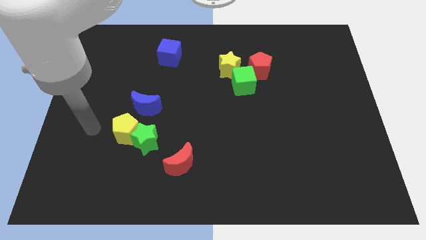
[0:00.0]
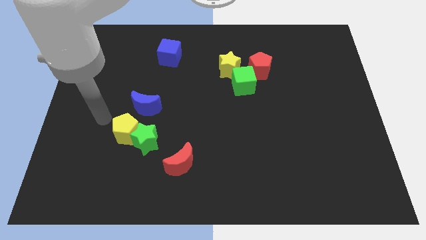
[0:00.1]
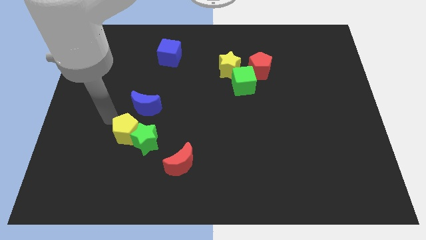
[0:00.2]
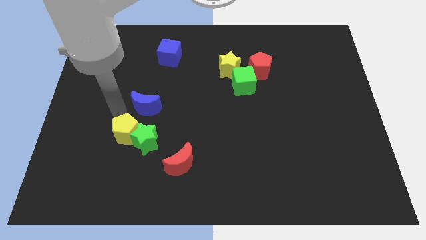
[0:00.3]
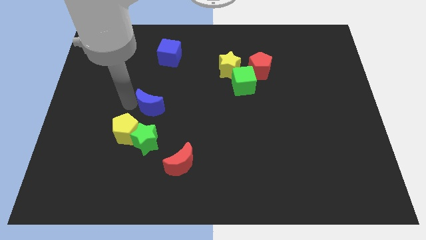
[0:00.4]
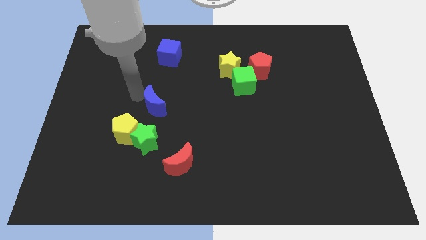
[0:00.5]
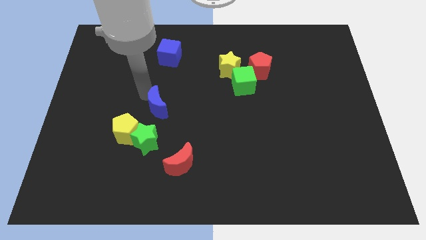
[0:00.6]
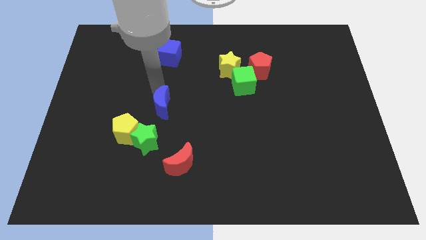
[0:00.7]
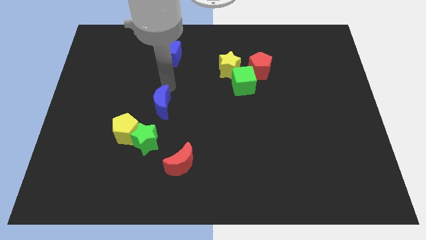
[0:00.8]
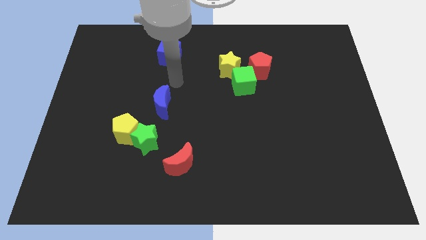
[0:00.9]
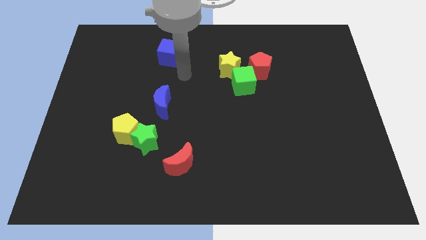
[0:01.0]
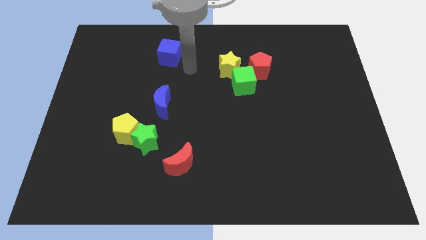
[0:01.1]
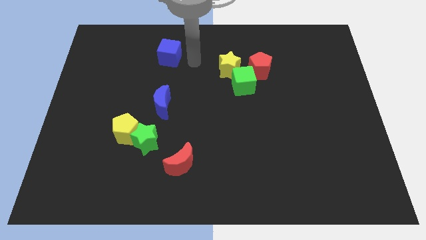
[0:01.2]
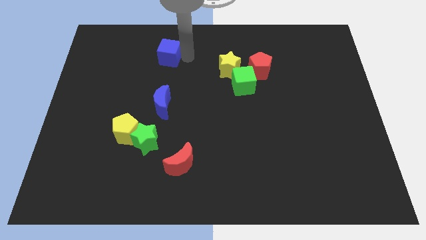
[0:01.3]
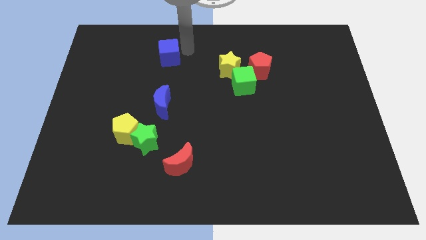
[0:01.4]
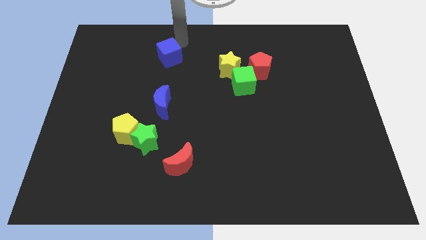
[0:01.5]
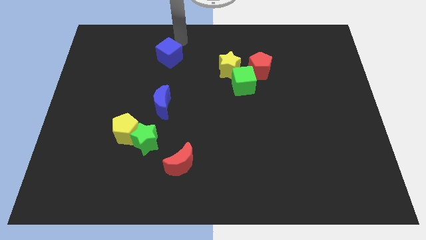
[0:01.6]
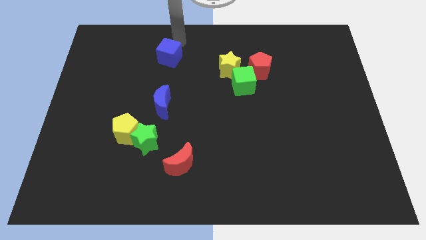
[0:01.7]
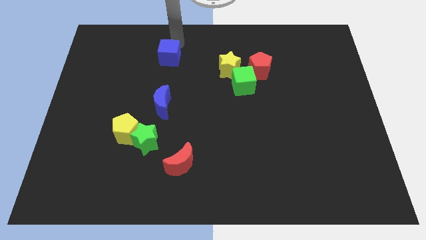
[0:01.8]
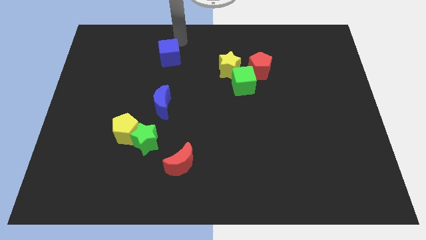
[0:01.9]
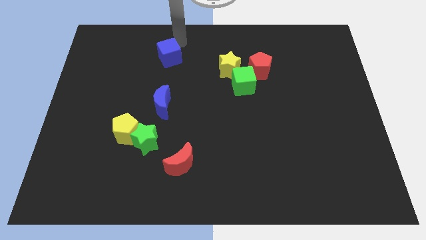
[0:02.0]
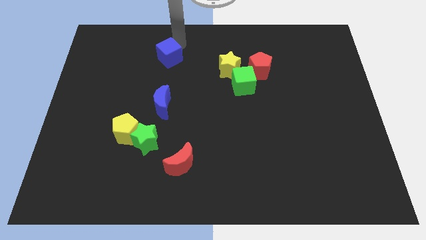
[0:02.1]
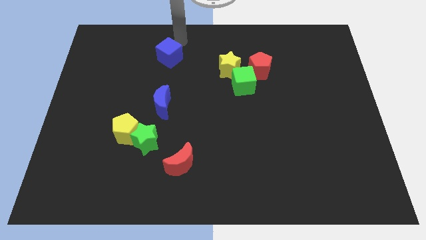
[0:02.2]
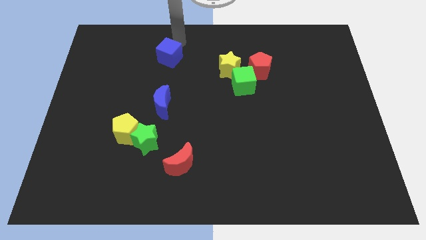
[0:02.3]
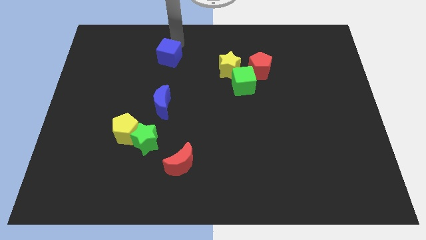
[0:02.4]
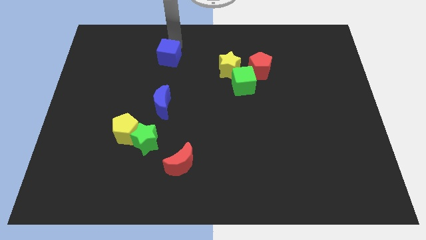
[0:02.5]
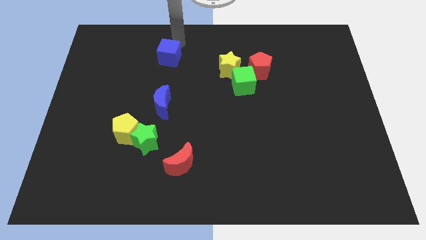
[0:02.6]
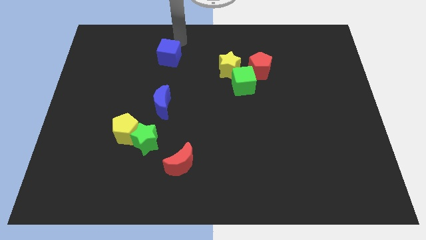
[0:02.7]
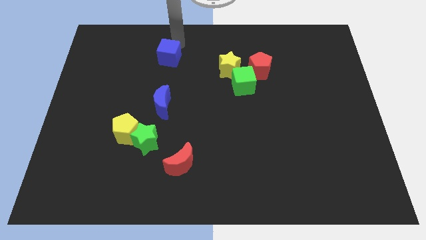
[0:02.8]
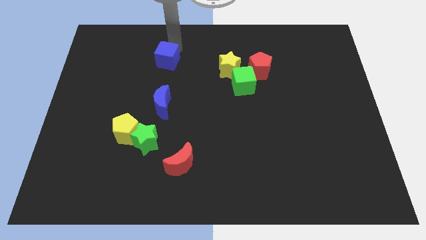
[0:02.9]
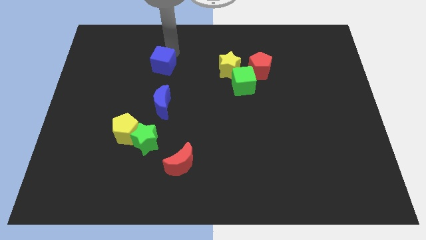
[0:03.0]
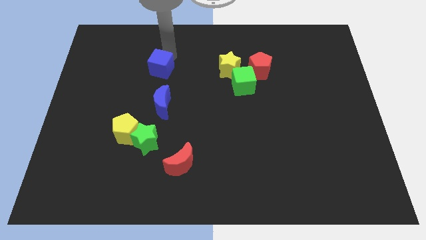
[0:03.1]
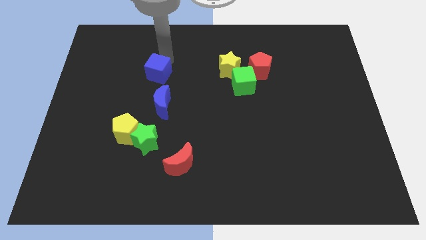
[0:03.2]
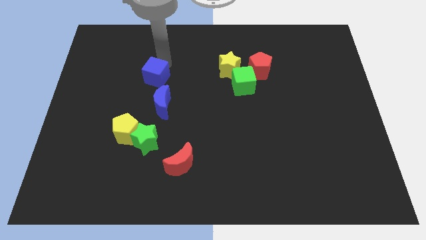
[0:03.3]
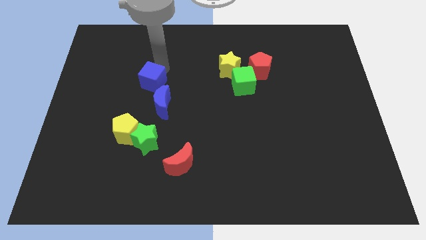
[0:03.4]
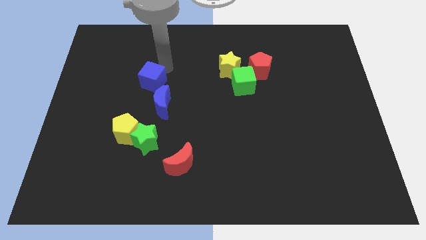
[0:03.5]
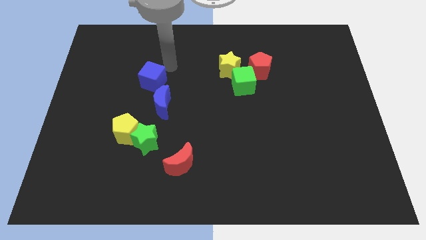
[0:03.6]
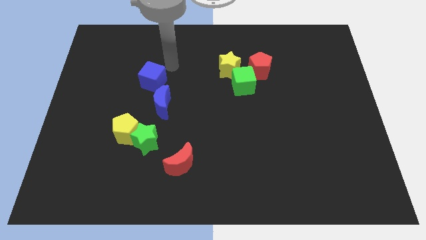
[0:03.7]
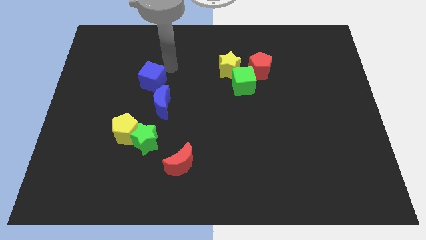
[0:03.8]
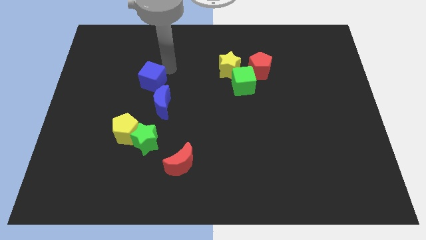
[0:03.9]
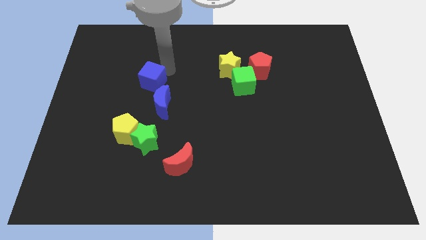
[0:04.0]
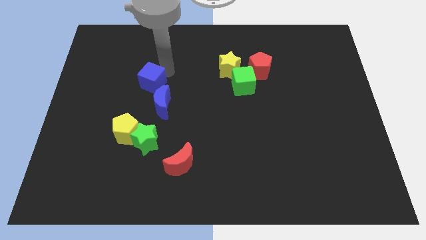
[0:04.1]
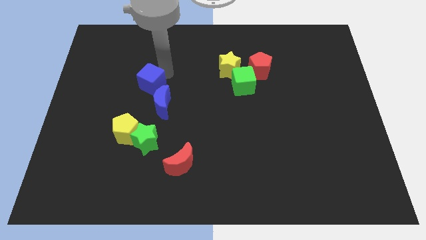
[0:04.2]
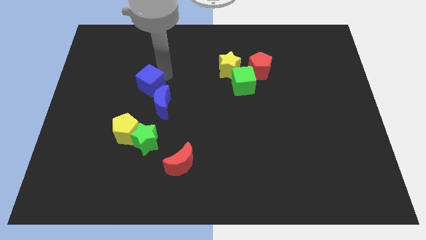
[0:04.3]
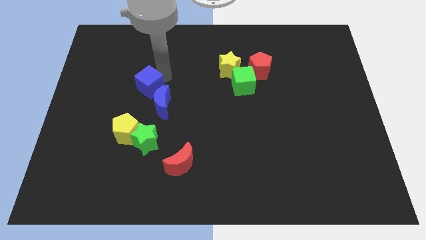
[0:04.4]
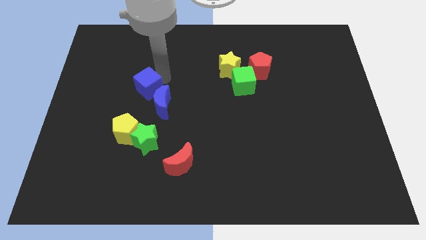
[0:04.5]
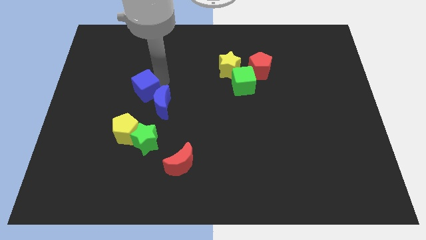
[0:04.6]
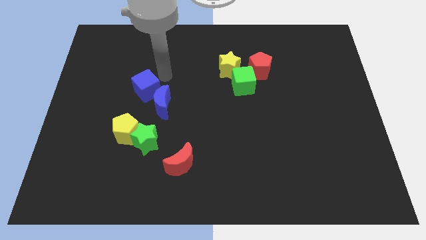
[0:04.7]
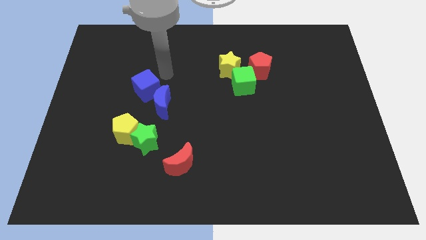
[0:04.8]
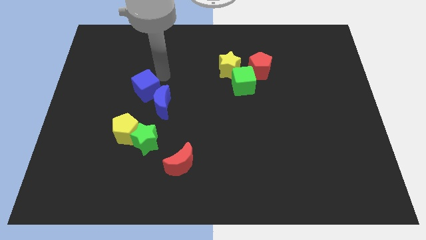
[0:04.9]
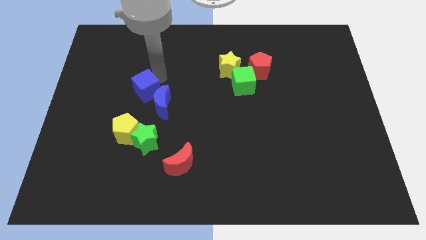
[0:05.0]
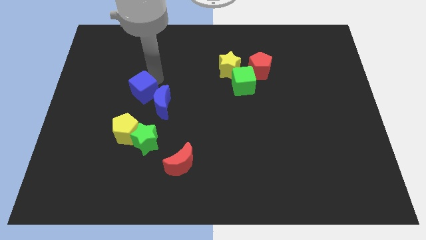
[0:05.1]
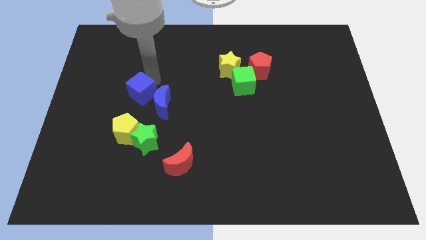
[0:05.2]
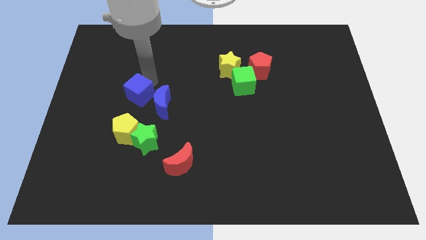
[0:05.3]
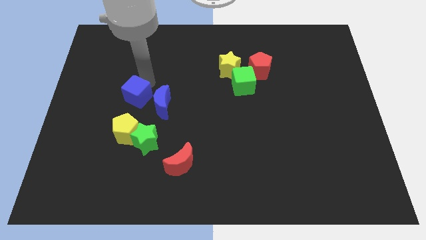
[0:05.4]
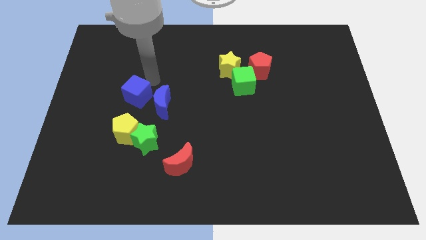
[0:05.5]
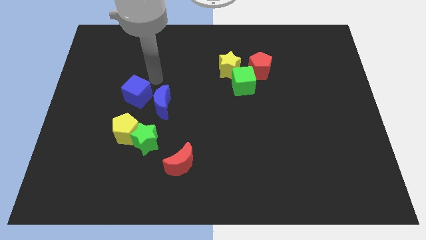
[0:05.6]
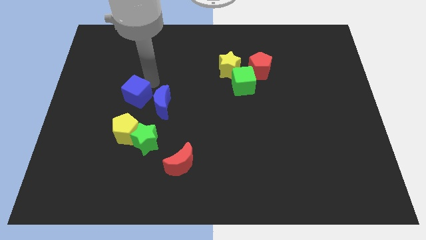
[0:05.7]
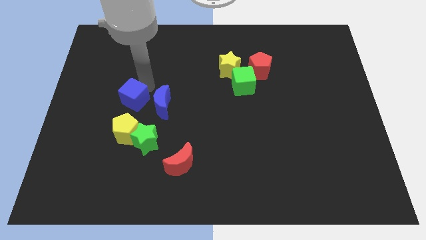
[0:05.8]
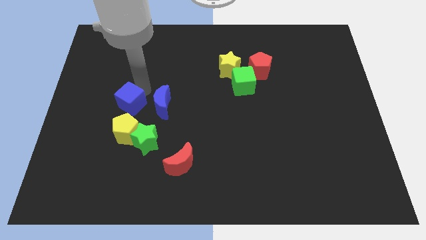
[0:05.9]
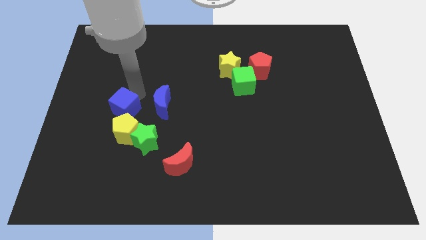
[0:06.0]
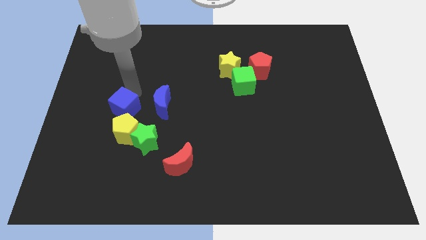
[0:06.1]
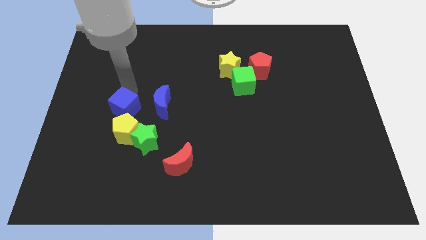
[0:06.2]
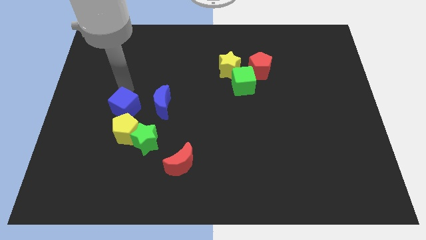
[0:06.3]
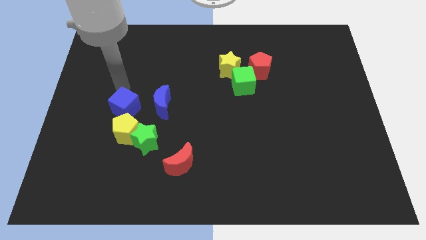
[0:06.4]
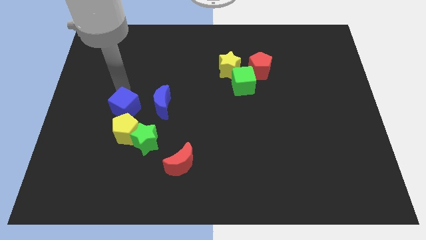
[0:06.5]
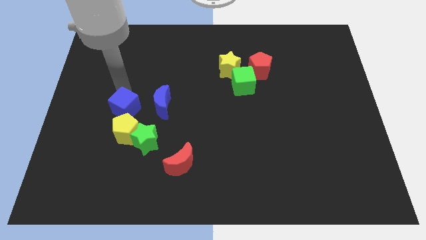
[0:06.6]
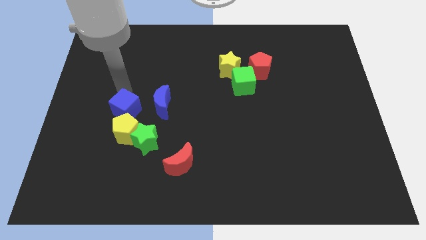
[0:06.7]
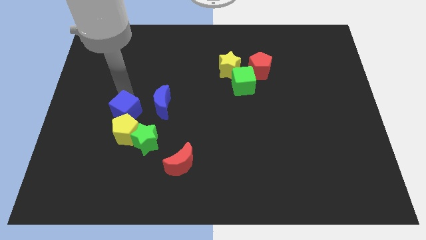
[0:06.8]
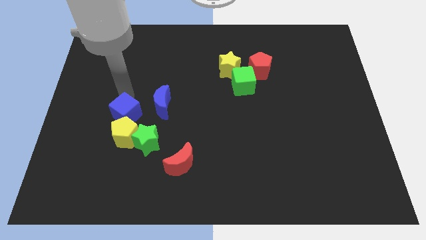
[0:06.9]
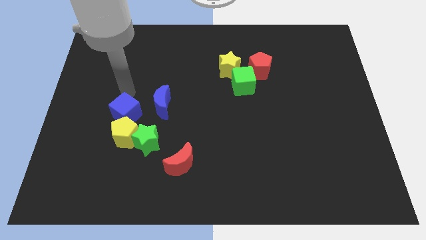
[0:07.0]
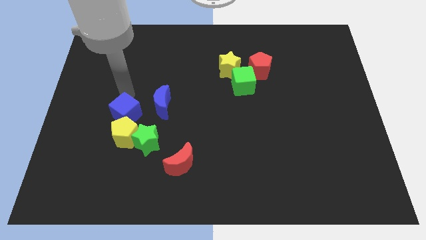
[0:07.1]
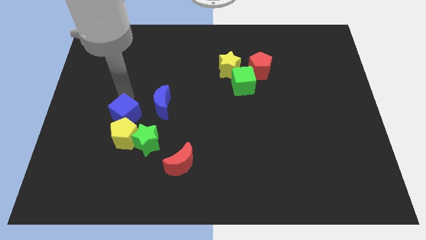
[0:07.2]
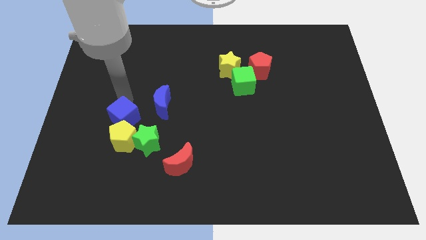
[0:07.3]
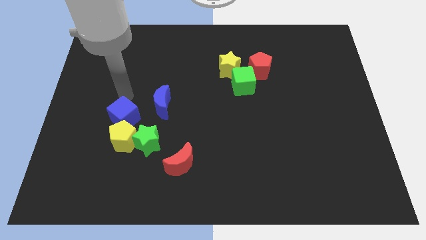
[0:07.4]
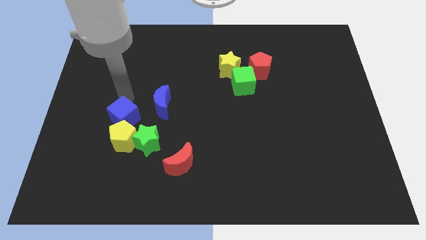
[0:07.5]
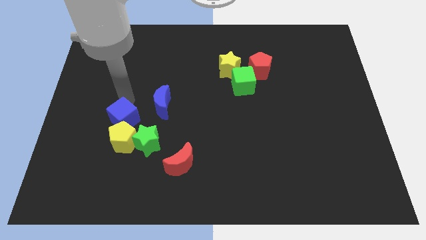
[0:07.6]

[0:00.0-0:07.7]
slide the blue cube next to the yellow pentagon
